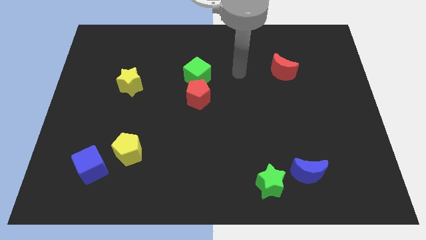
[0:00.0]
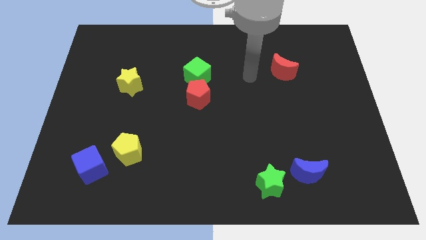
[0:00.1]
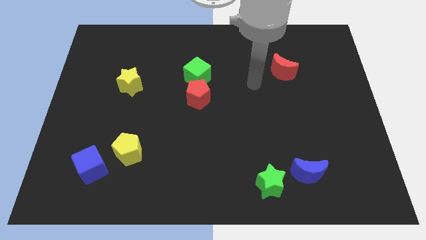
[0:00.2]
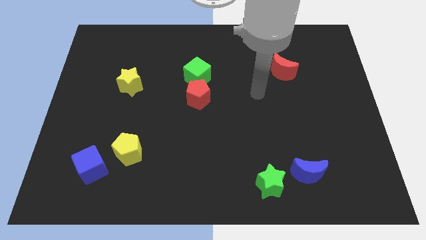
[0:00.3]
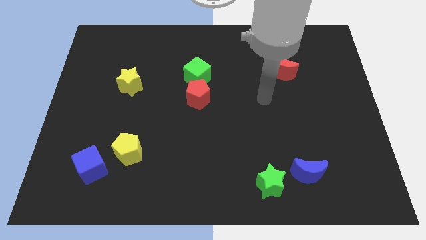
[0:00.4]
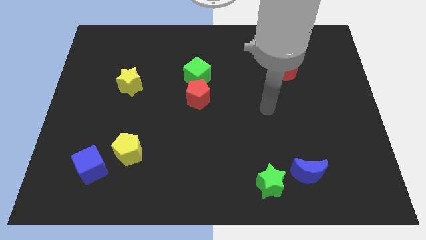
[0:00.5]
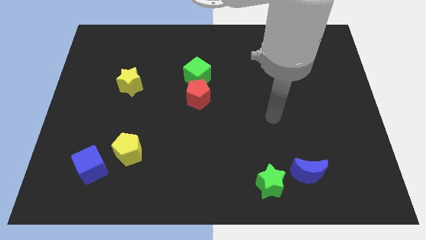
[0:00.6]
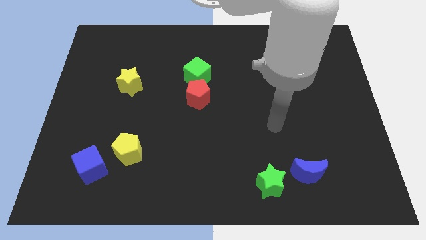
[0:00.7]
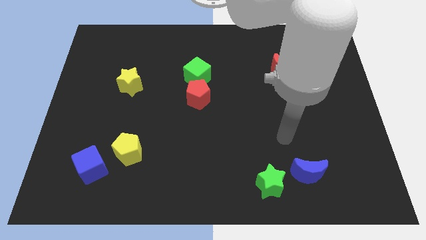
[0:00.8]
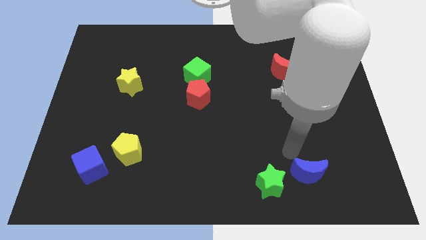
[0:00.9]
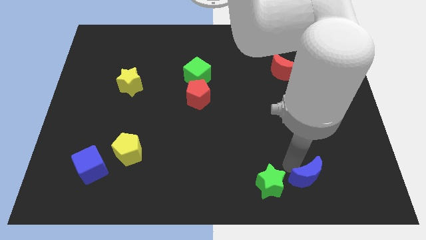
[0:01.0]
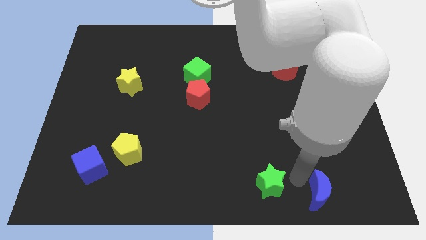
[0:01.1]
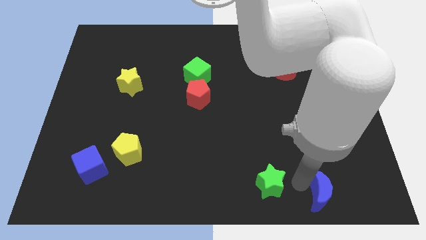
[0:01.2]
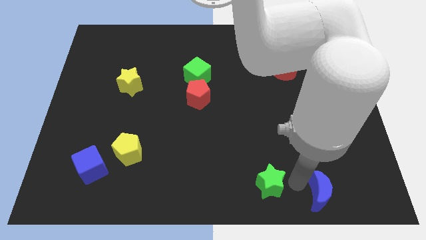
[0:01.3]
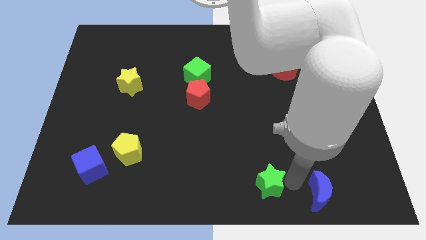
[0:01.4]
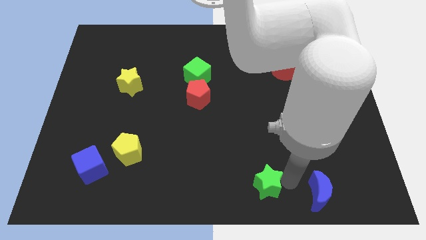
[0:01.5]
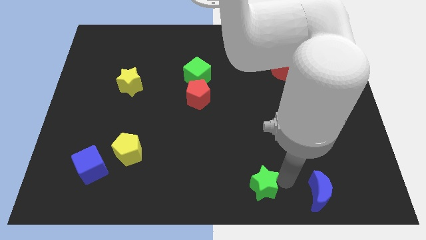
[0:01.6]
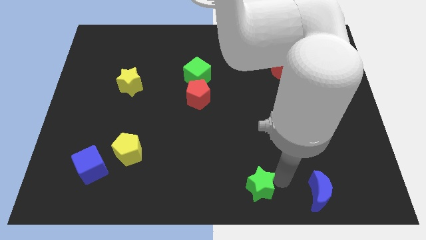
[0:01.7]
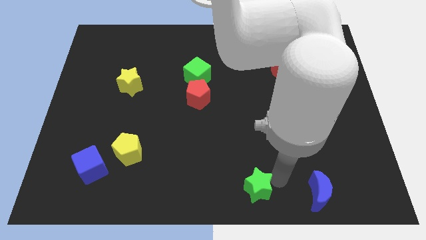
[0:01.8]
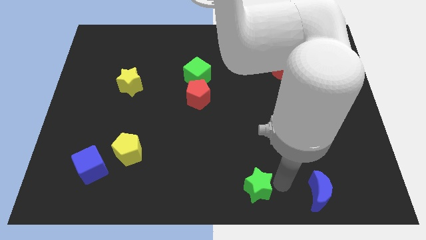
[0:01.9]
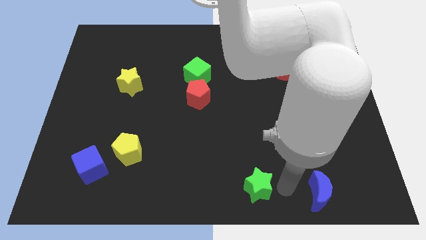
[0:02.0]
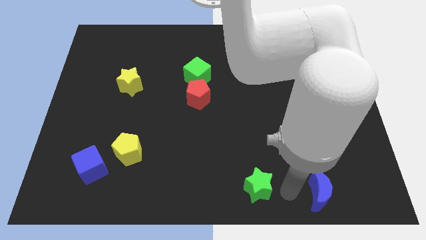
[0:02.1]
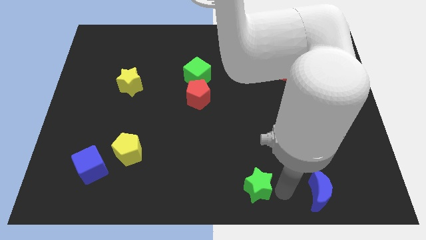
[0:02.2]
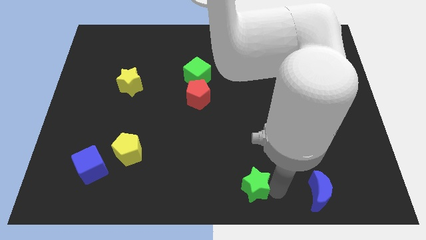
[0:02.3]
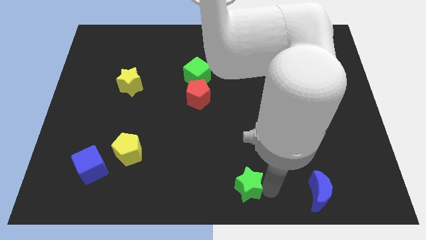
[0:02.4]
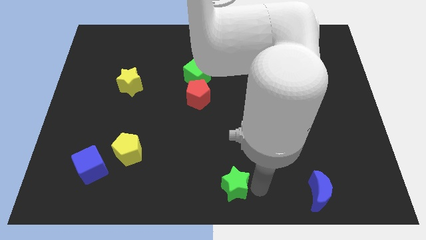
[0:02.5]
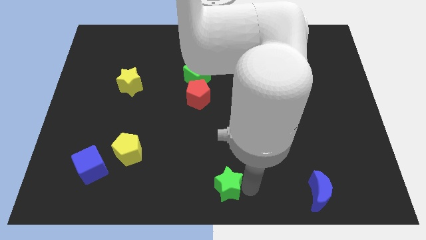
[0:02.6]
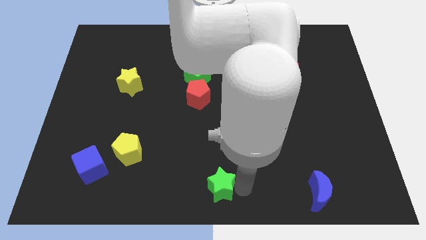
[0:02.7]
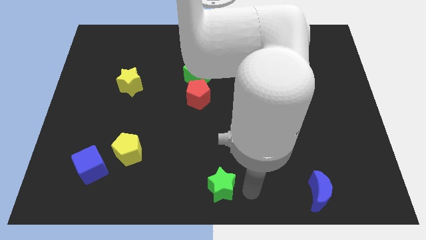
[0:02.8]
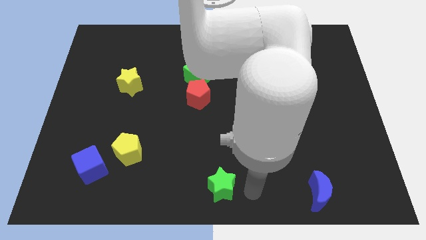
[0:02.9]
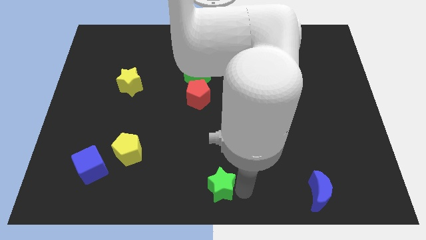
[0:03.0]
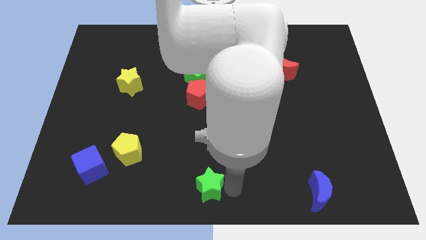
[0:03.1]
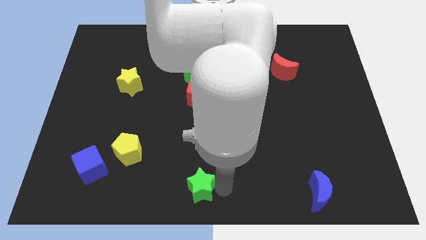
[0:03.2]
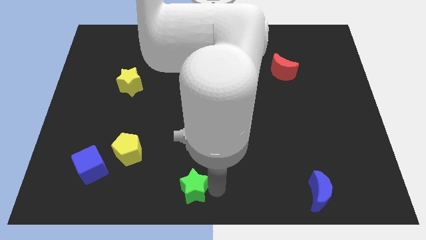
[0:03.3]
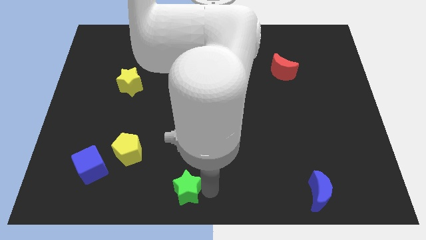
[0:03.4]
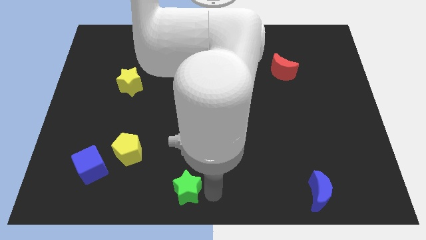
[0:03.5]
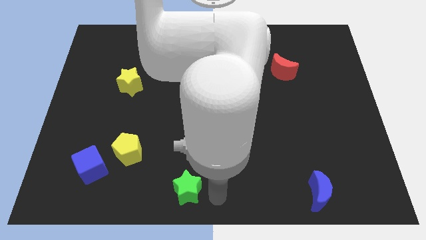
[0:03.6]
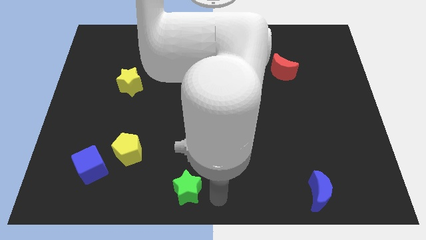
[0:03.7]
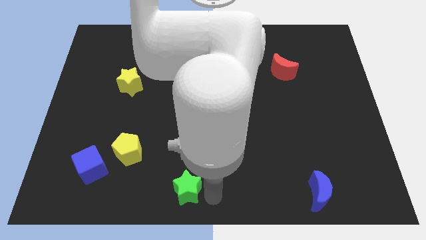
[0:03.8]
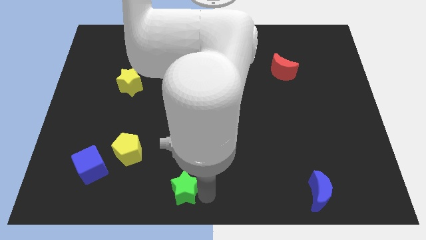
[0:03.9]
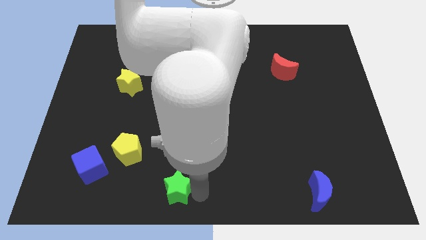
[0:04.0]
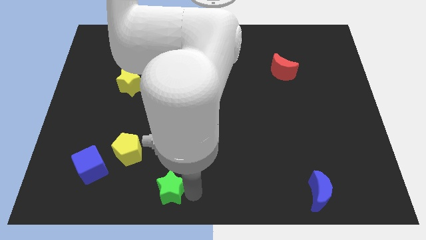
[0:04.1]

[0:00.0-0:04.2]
move the green star left

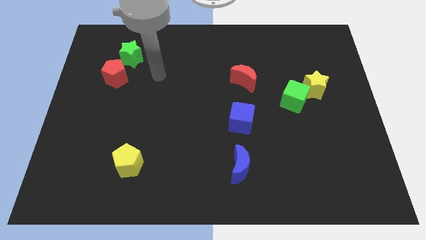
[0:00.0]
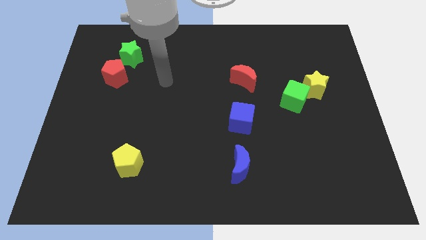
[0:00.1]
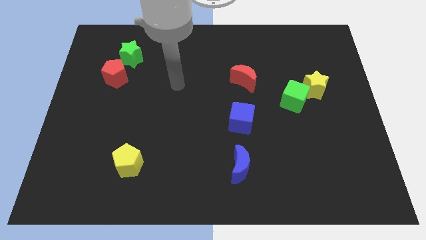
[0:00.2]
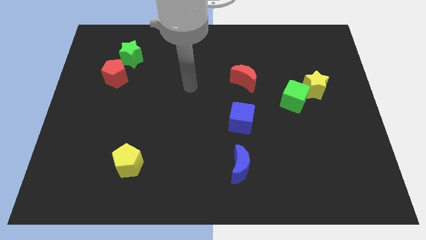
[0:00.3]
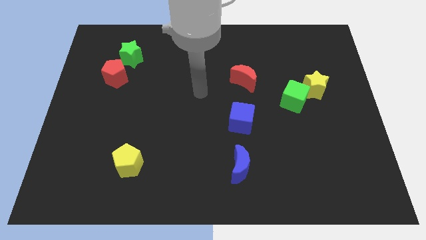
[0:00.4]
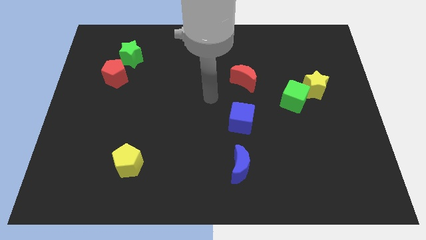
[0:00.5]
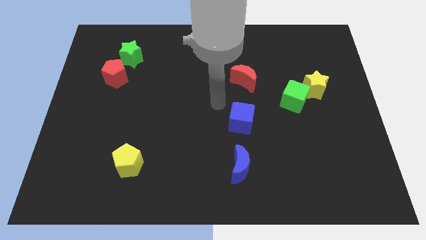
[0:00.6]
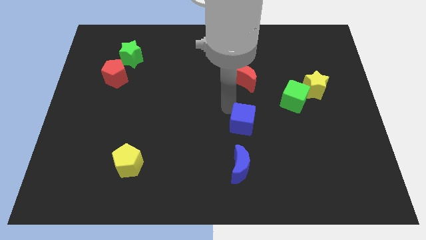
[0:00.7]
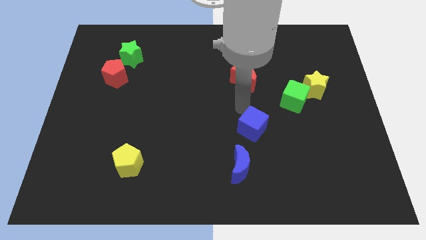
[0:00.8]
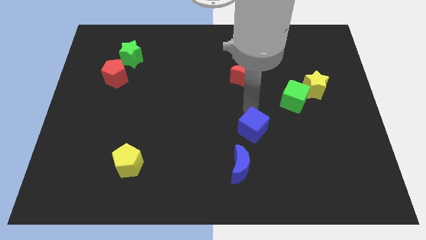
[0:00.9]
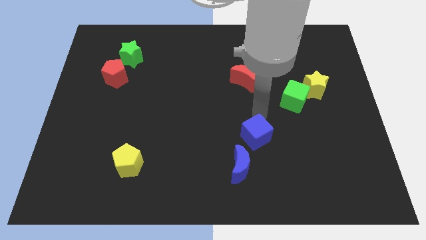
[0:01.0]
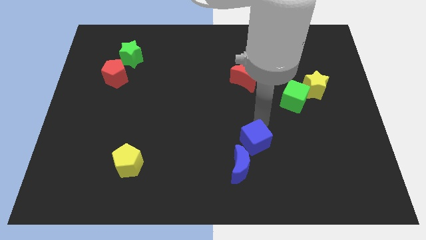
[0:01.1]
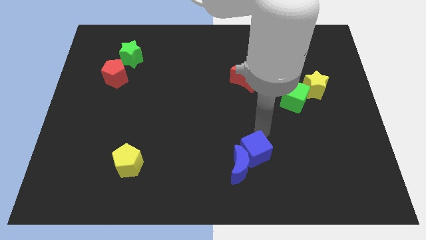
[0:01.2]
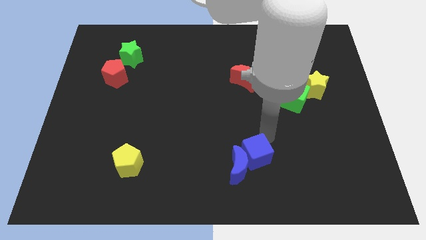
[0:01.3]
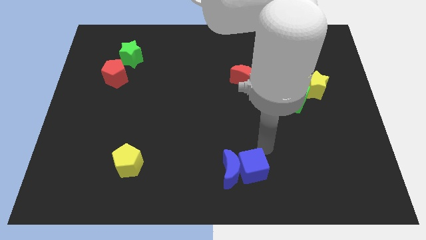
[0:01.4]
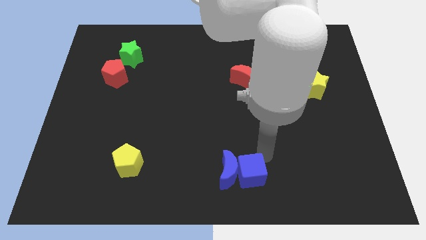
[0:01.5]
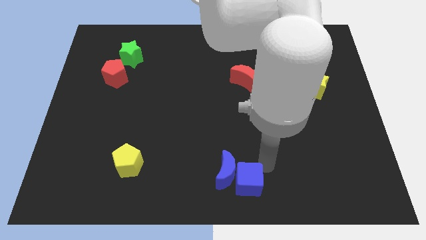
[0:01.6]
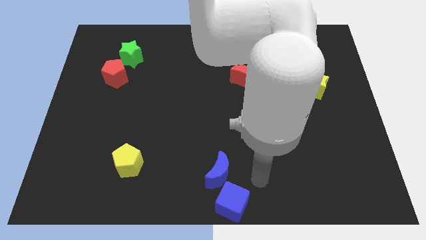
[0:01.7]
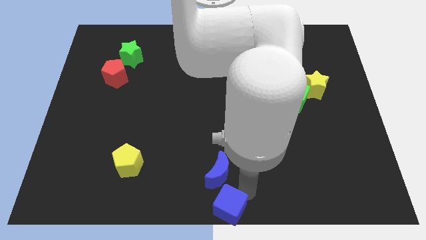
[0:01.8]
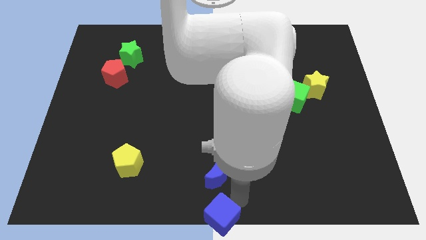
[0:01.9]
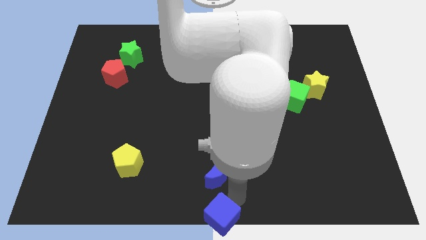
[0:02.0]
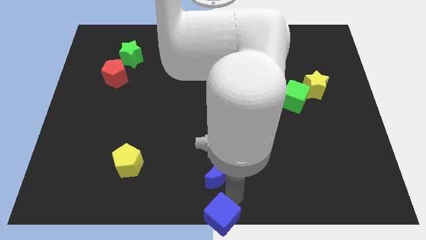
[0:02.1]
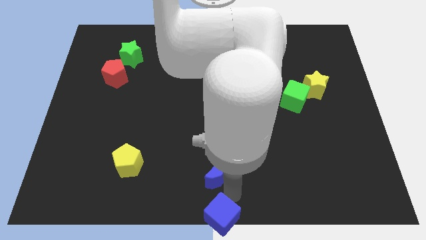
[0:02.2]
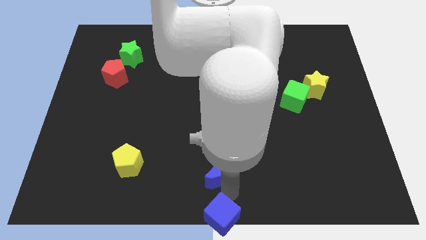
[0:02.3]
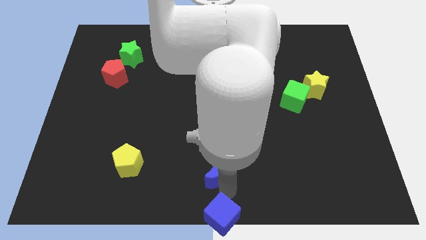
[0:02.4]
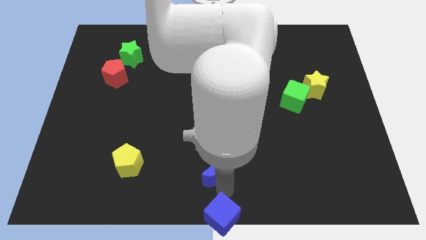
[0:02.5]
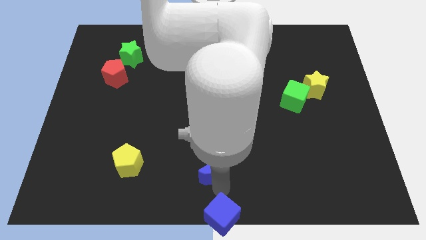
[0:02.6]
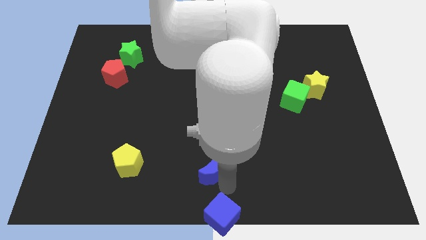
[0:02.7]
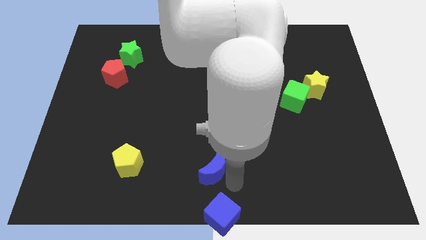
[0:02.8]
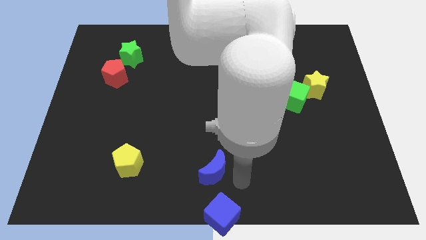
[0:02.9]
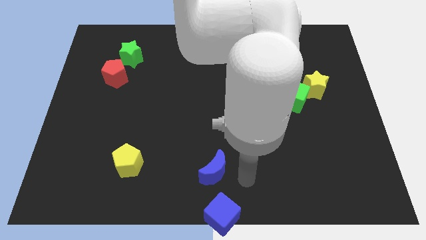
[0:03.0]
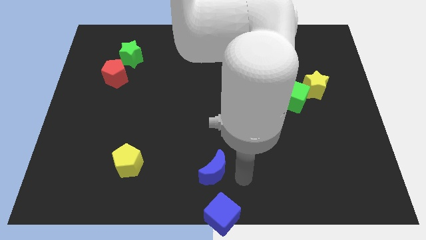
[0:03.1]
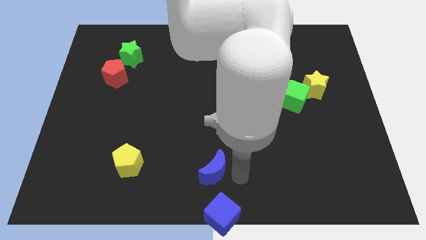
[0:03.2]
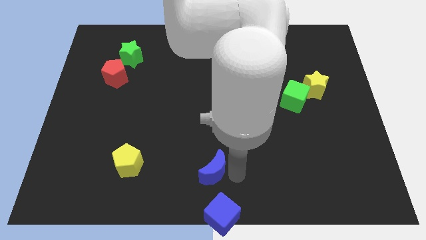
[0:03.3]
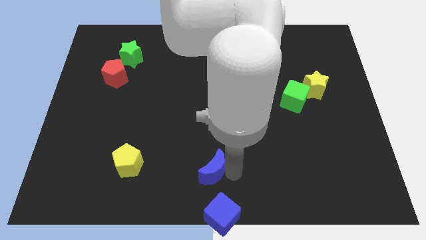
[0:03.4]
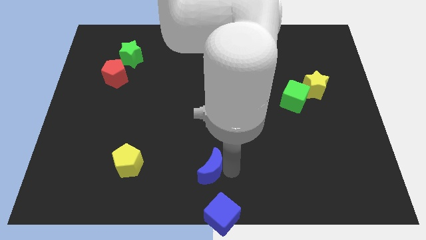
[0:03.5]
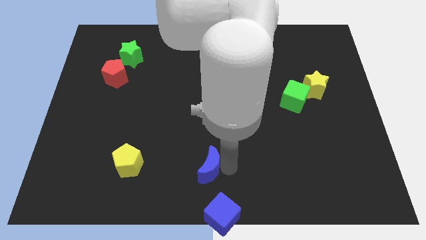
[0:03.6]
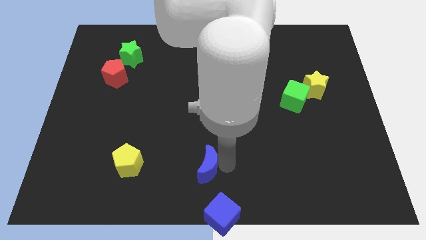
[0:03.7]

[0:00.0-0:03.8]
push the blue moon left somewhat
